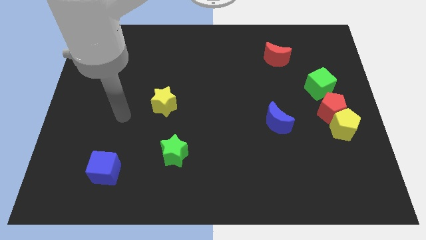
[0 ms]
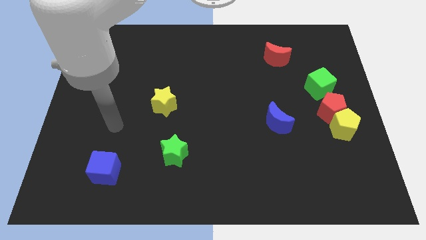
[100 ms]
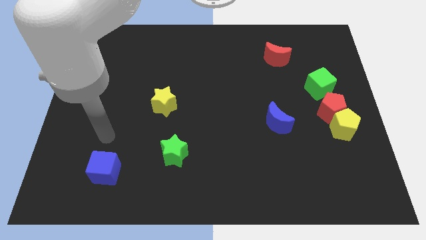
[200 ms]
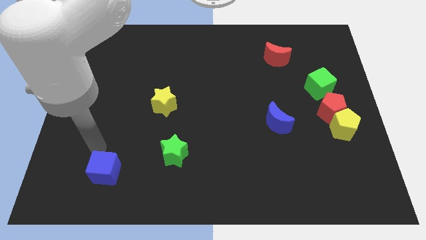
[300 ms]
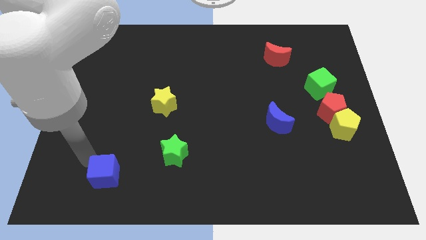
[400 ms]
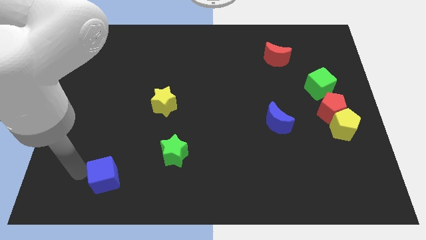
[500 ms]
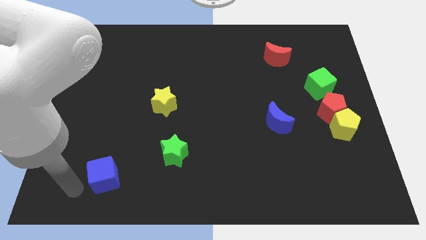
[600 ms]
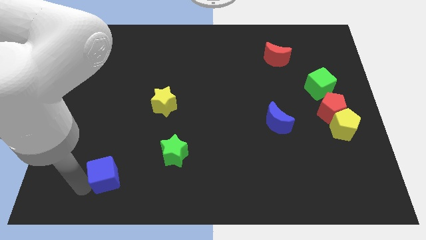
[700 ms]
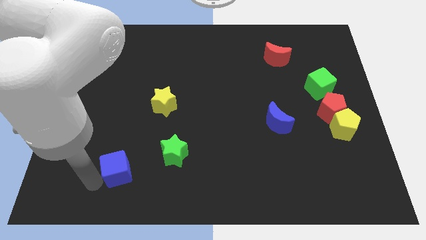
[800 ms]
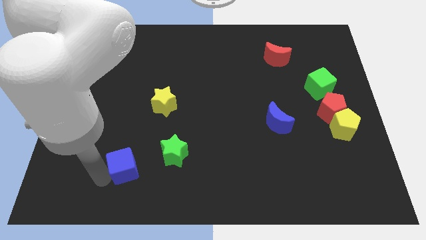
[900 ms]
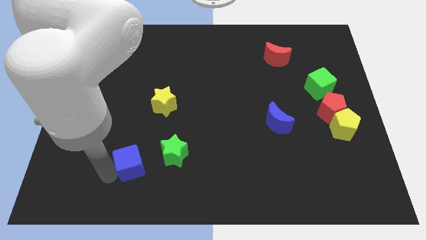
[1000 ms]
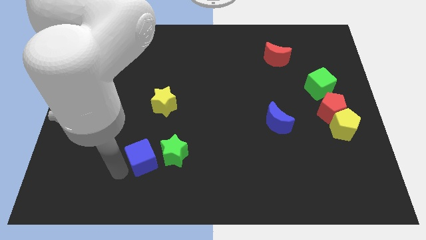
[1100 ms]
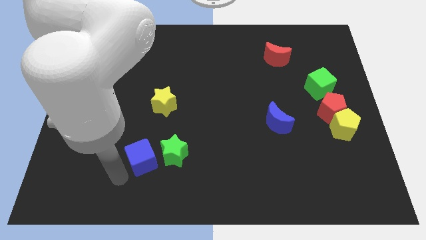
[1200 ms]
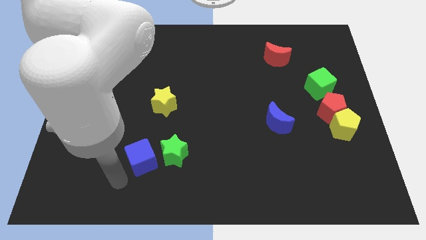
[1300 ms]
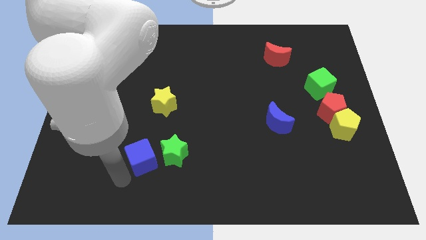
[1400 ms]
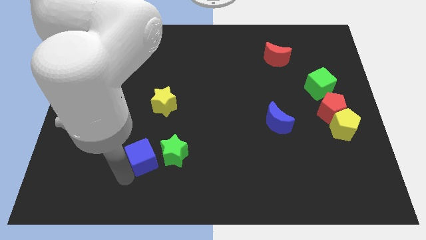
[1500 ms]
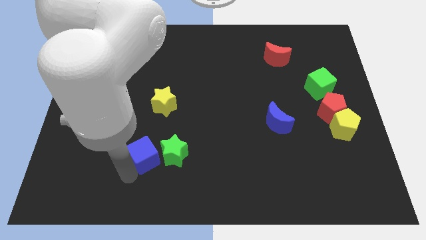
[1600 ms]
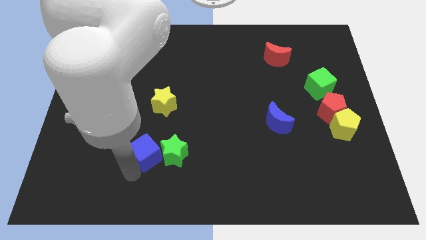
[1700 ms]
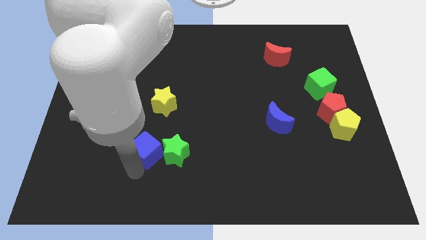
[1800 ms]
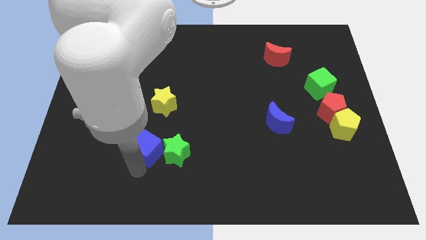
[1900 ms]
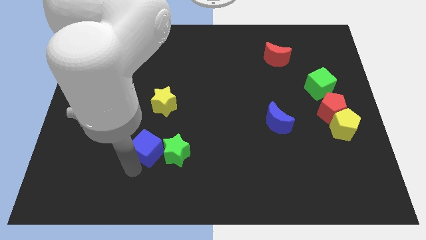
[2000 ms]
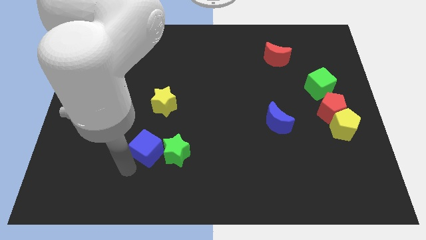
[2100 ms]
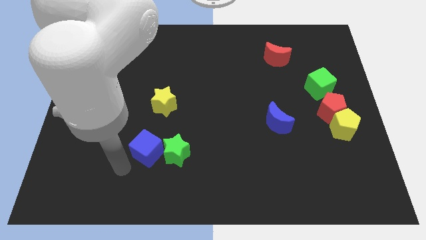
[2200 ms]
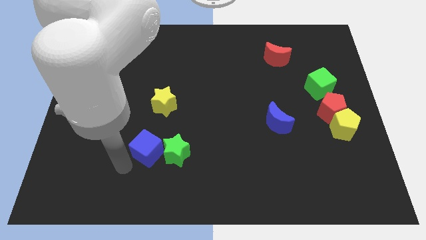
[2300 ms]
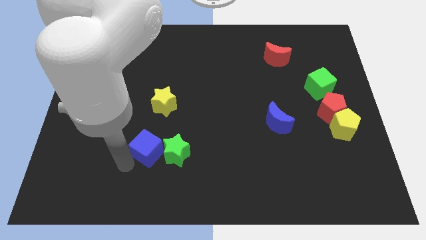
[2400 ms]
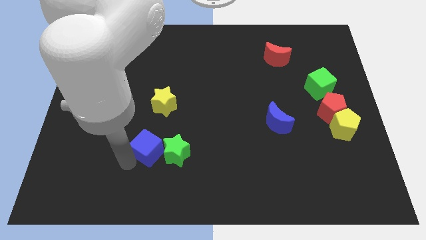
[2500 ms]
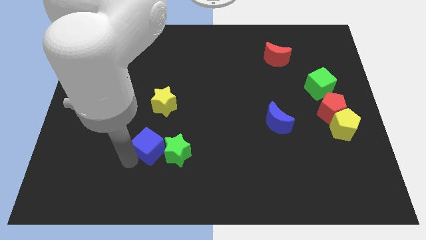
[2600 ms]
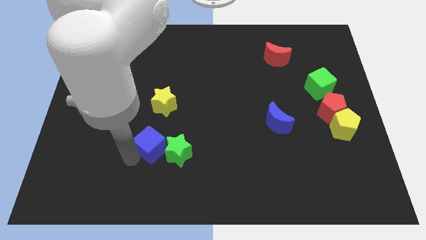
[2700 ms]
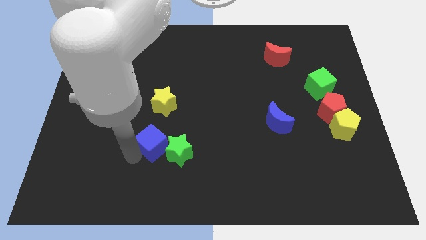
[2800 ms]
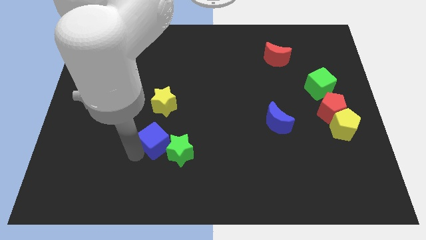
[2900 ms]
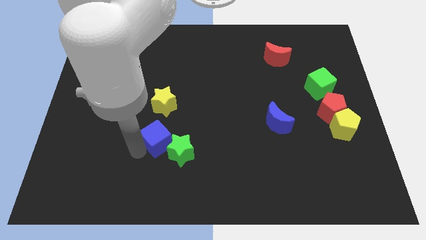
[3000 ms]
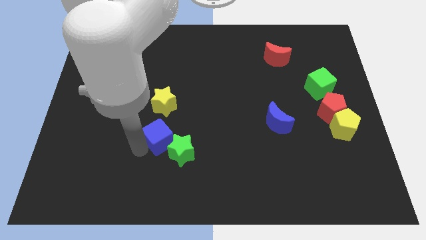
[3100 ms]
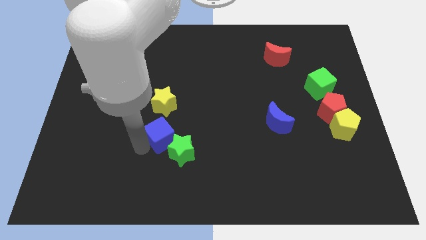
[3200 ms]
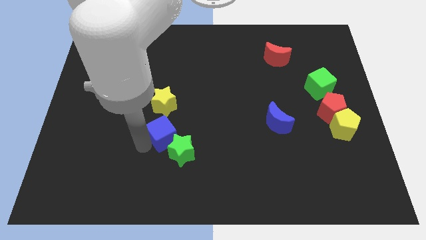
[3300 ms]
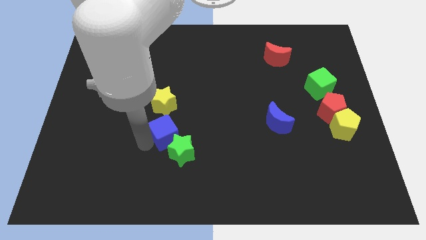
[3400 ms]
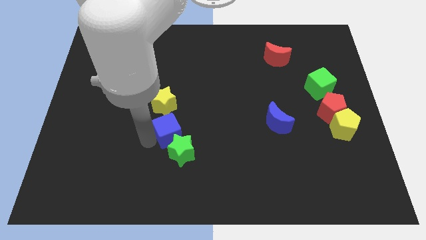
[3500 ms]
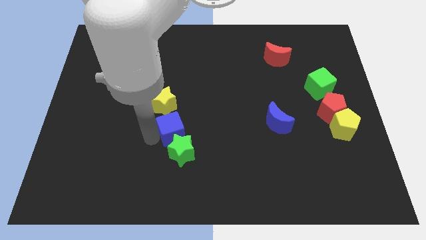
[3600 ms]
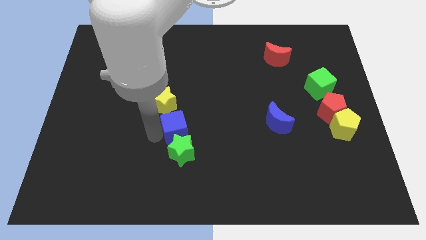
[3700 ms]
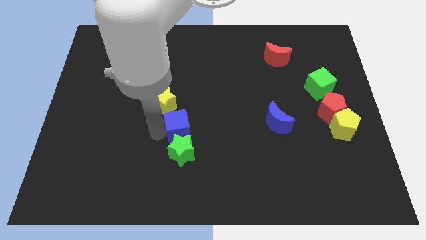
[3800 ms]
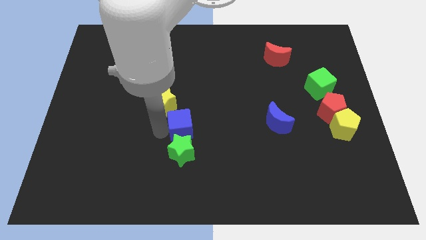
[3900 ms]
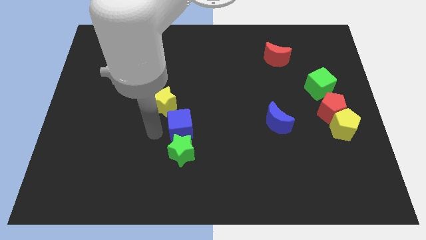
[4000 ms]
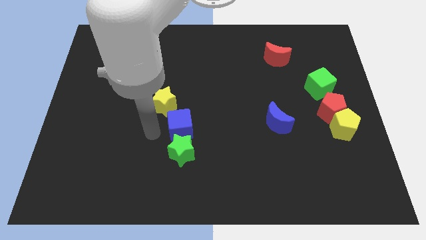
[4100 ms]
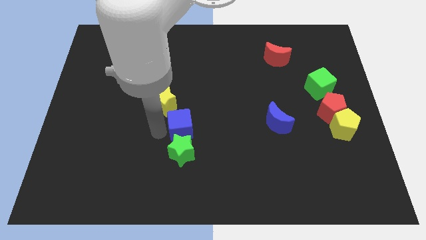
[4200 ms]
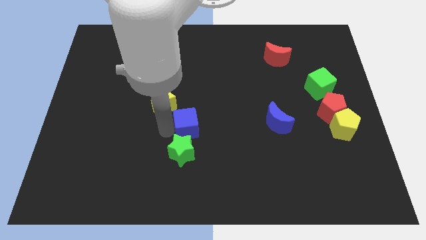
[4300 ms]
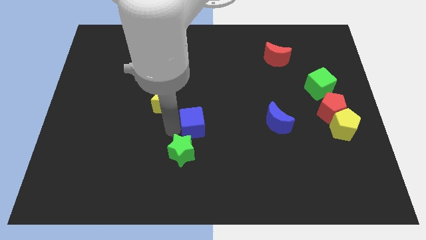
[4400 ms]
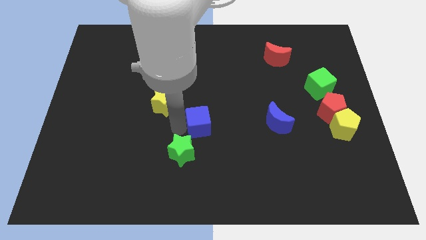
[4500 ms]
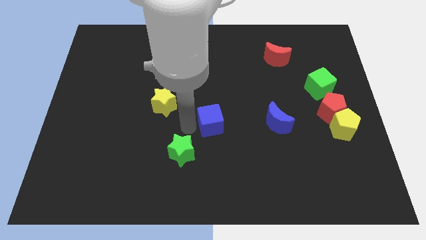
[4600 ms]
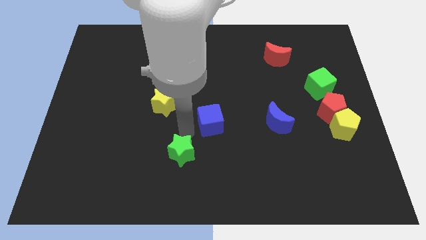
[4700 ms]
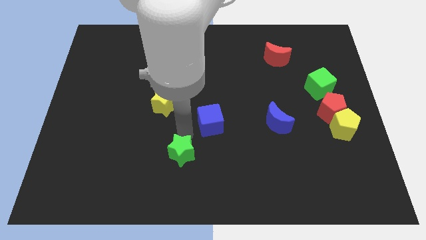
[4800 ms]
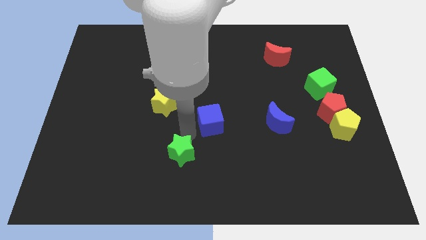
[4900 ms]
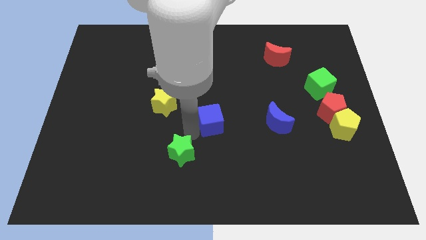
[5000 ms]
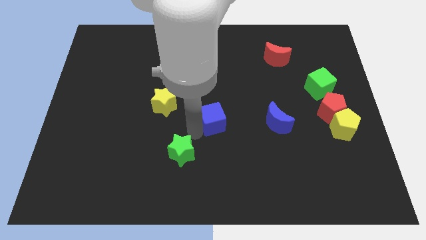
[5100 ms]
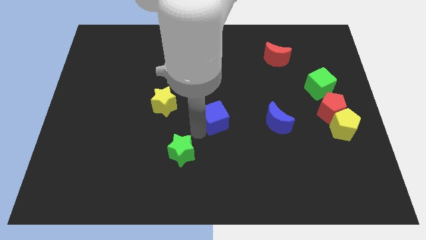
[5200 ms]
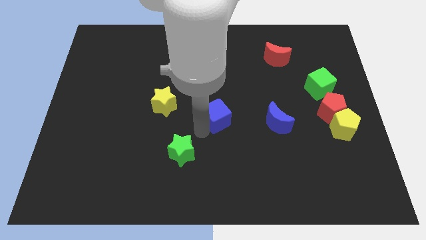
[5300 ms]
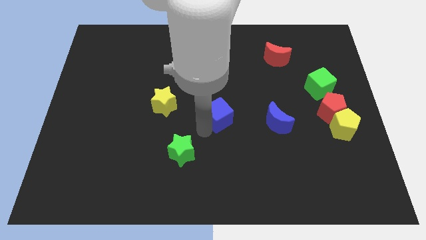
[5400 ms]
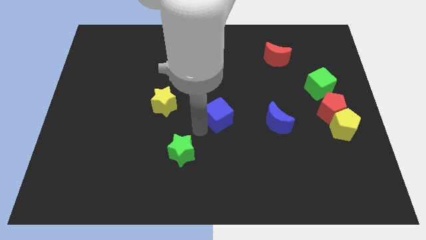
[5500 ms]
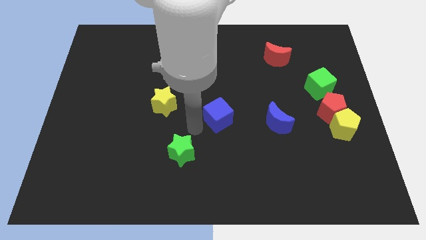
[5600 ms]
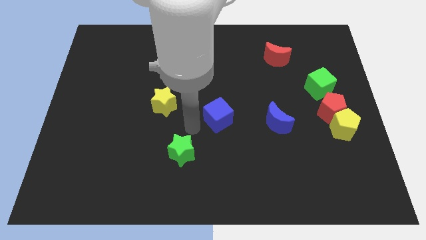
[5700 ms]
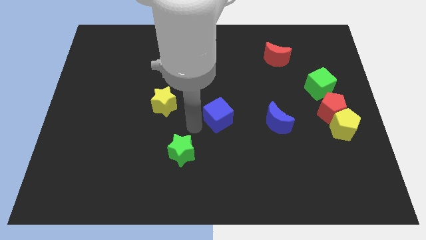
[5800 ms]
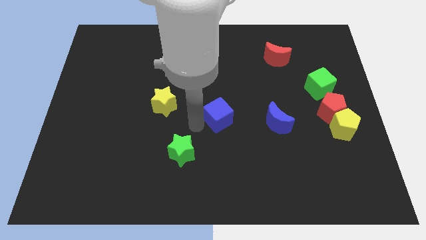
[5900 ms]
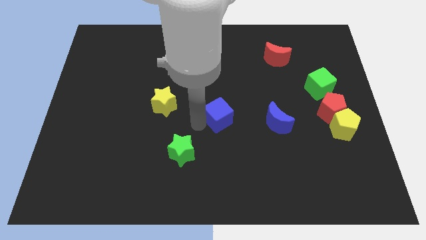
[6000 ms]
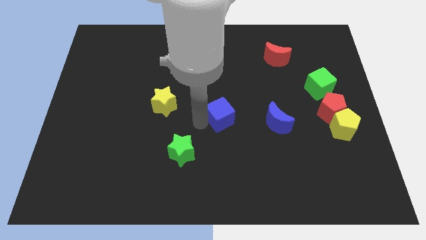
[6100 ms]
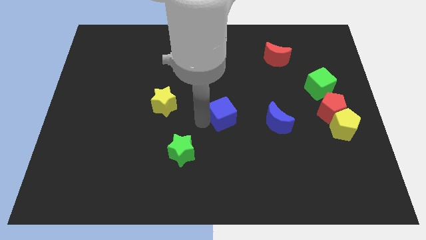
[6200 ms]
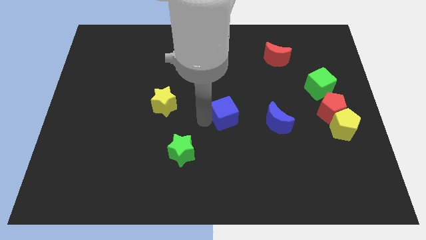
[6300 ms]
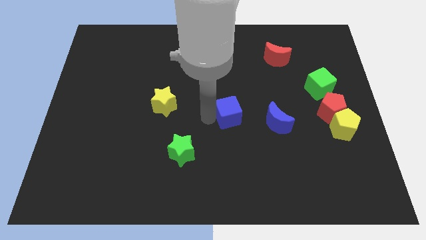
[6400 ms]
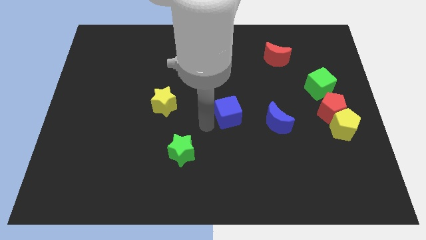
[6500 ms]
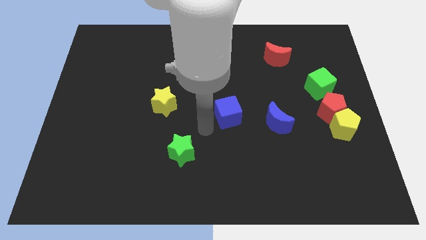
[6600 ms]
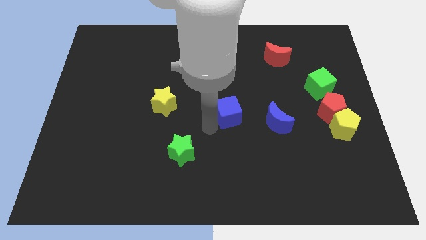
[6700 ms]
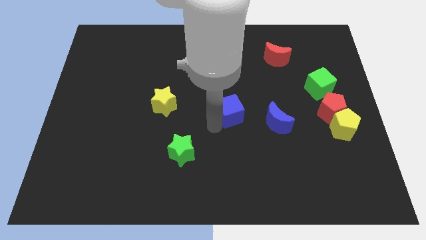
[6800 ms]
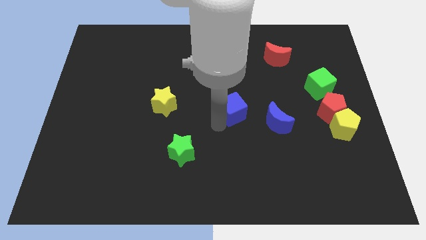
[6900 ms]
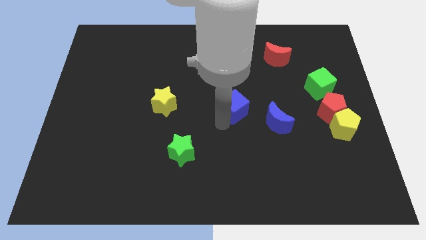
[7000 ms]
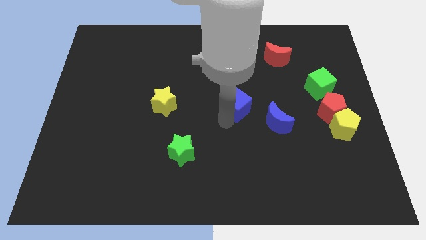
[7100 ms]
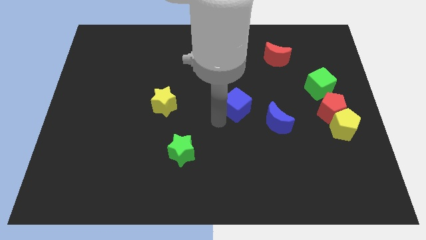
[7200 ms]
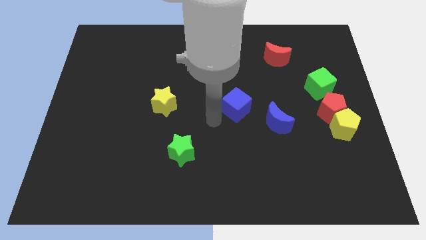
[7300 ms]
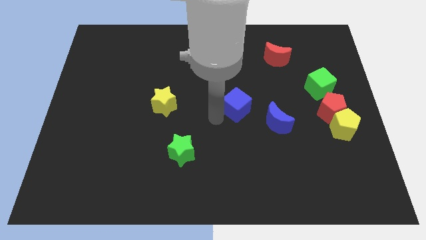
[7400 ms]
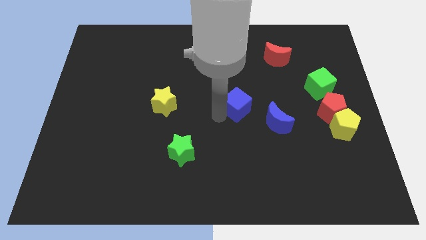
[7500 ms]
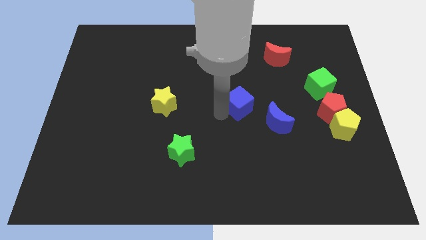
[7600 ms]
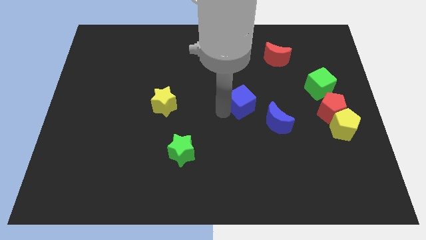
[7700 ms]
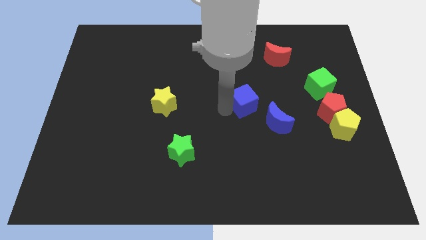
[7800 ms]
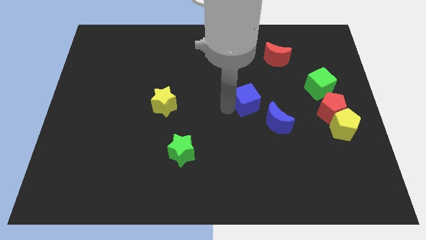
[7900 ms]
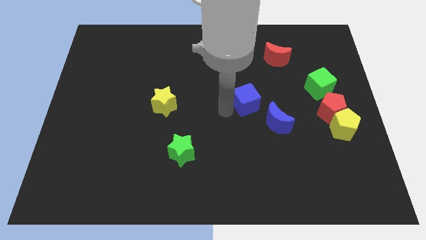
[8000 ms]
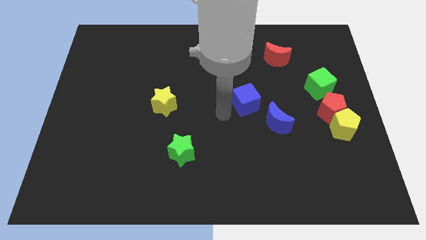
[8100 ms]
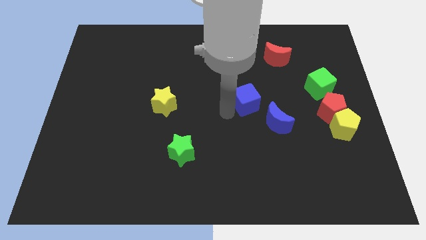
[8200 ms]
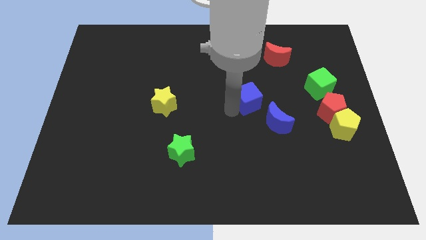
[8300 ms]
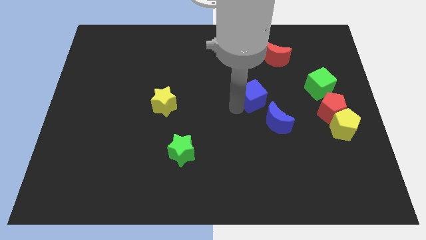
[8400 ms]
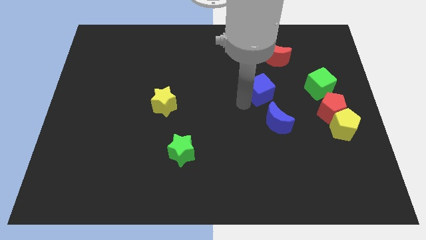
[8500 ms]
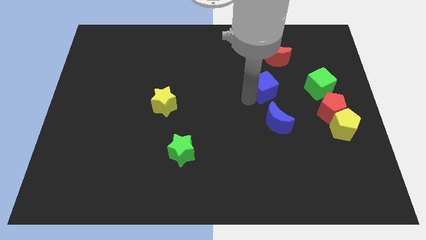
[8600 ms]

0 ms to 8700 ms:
move the blue cube to the bottom side of the red moon
